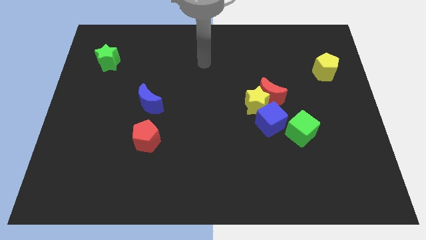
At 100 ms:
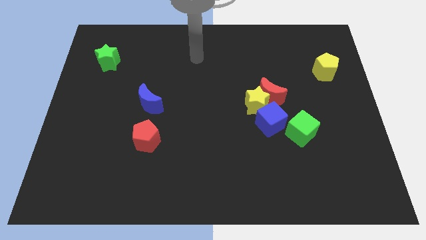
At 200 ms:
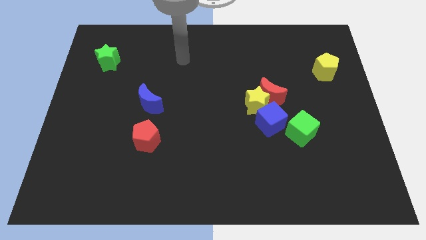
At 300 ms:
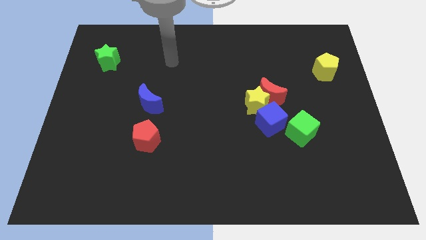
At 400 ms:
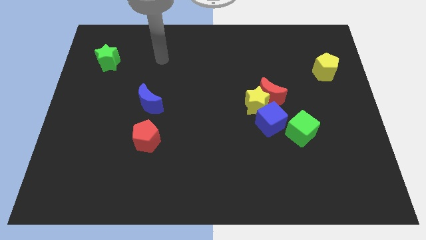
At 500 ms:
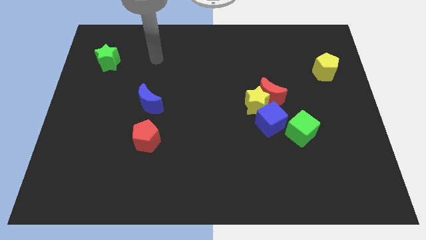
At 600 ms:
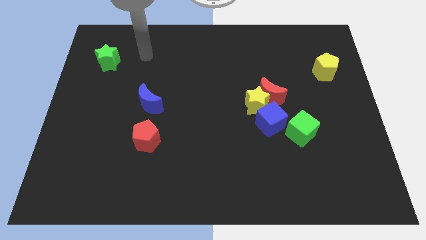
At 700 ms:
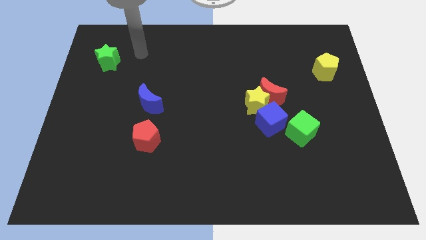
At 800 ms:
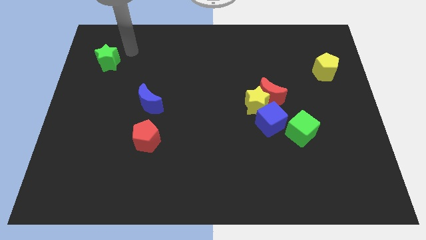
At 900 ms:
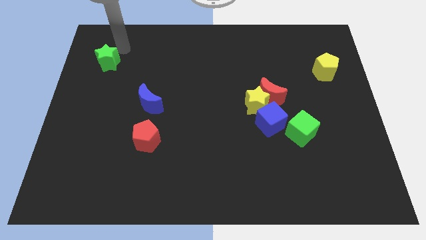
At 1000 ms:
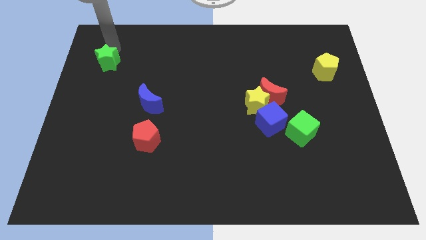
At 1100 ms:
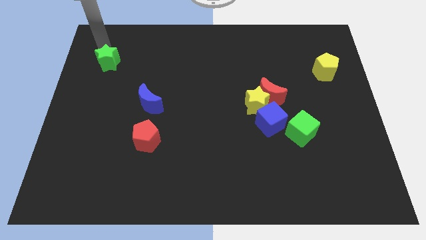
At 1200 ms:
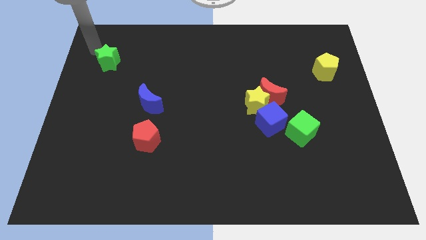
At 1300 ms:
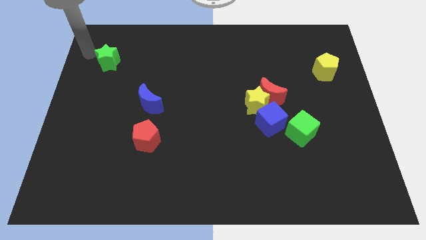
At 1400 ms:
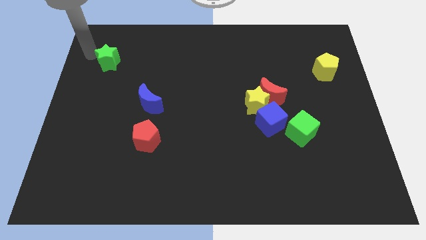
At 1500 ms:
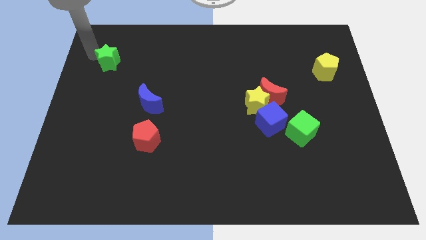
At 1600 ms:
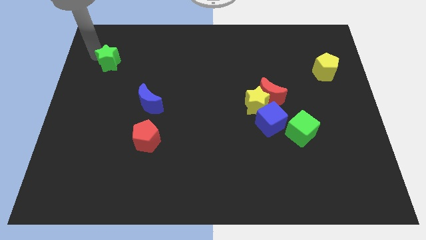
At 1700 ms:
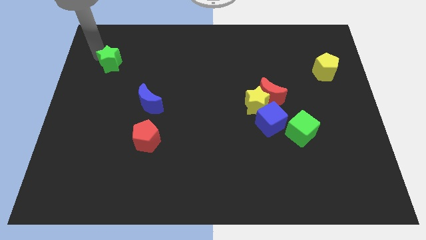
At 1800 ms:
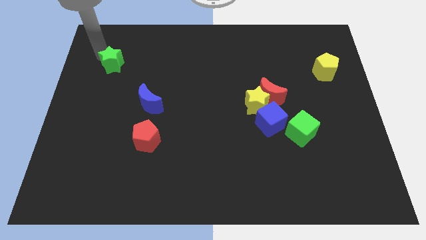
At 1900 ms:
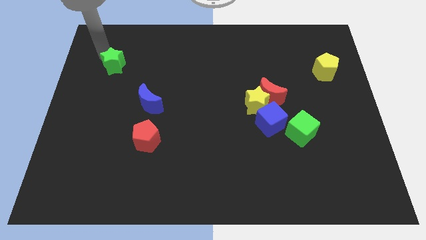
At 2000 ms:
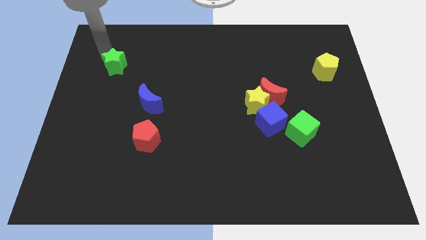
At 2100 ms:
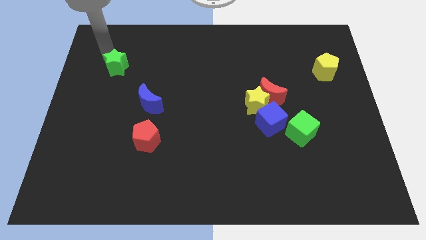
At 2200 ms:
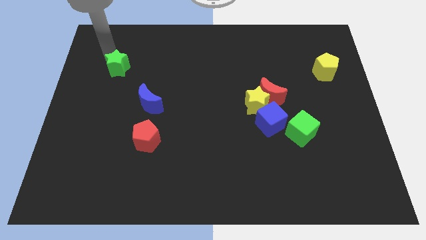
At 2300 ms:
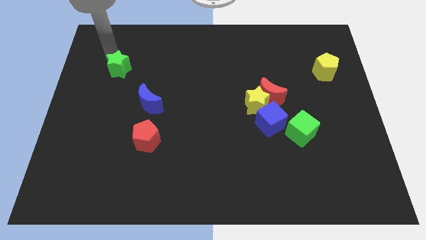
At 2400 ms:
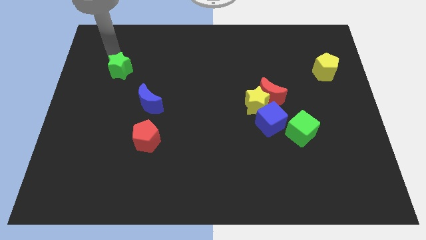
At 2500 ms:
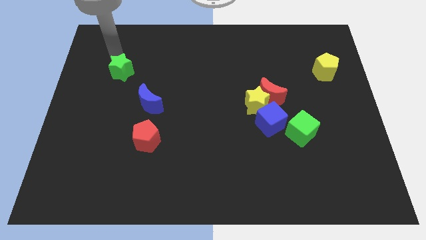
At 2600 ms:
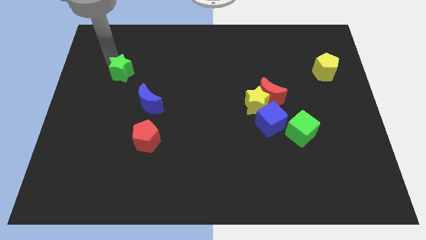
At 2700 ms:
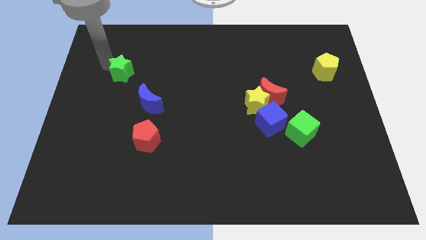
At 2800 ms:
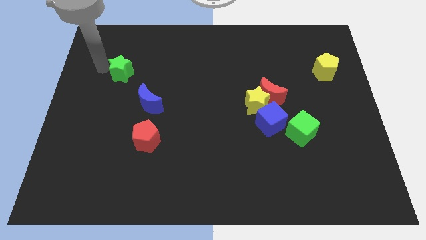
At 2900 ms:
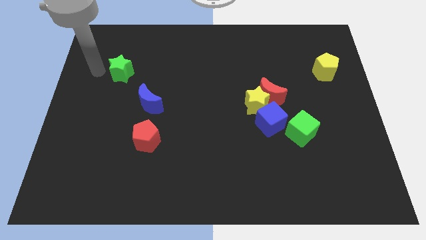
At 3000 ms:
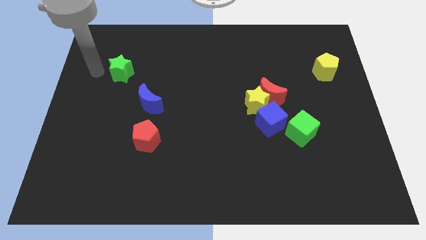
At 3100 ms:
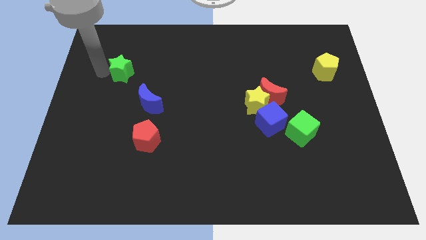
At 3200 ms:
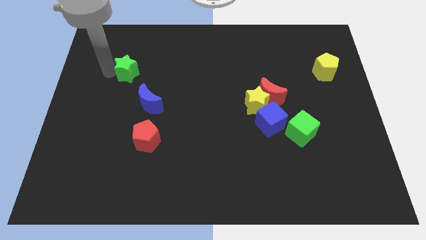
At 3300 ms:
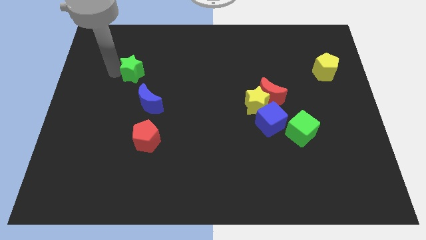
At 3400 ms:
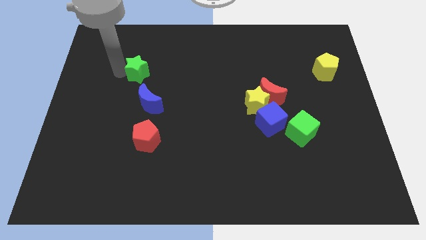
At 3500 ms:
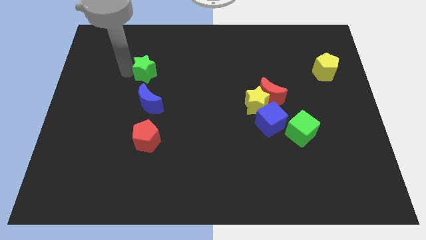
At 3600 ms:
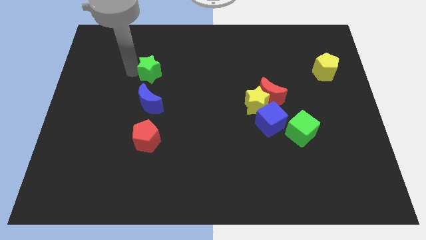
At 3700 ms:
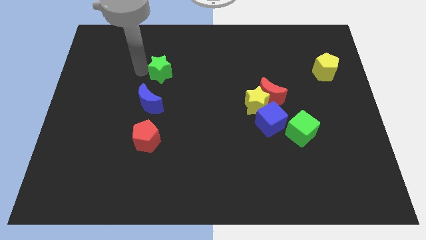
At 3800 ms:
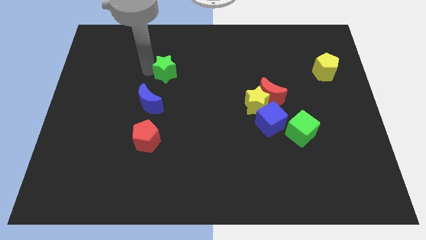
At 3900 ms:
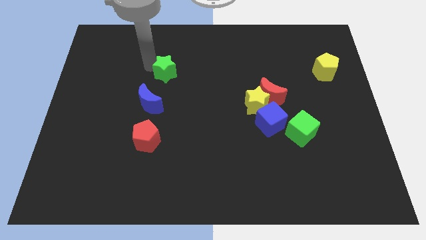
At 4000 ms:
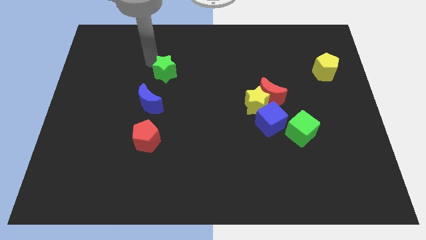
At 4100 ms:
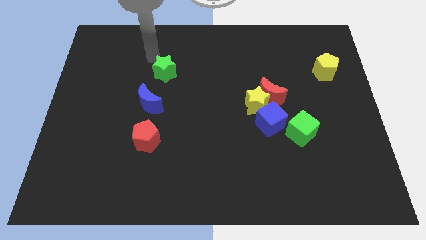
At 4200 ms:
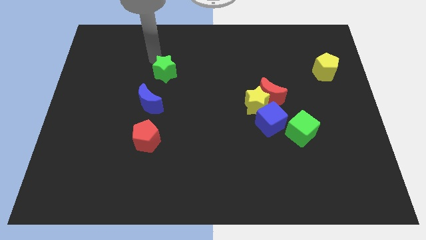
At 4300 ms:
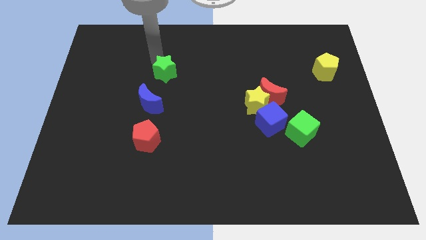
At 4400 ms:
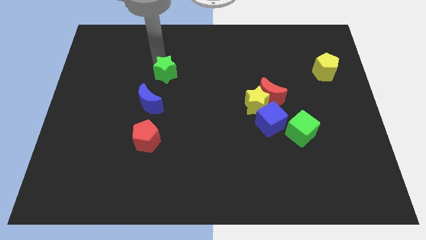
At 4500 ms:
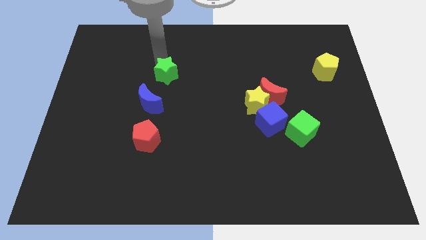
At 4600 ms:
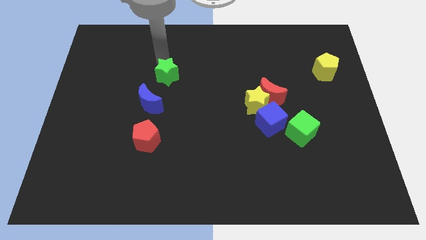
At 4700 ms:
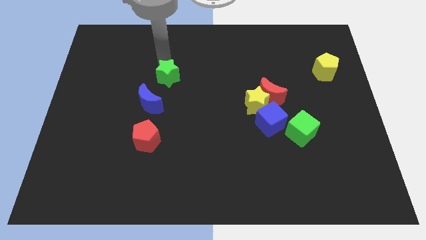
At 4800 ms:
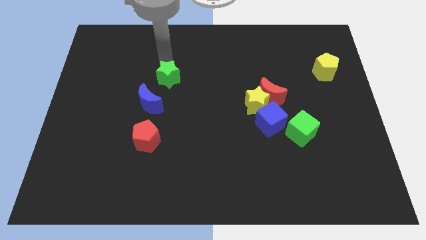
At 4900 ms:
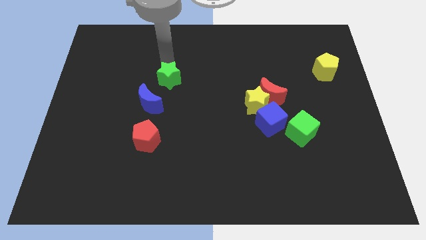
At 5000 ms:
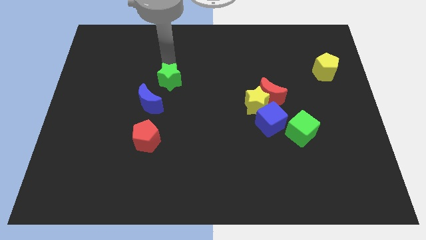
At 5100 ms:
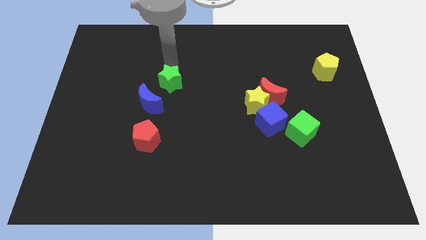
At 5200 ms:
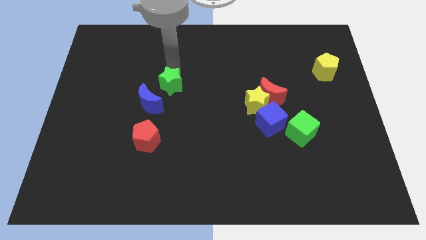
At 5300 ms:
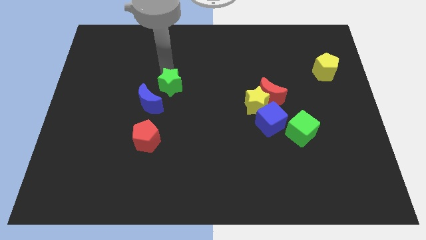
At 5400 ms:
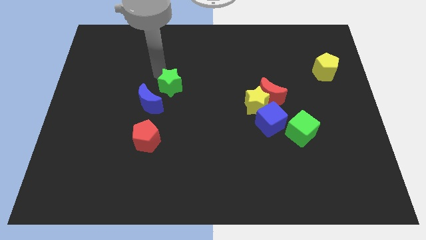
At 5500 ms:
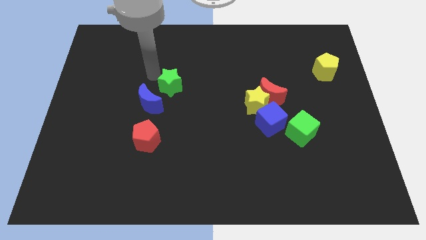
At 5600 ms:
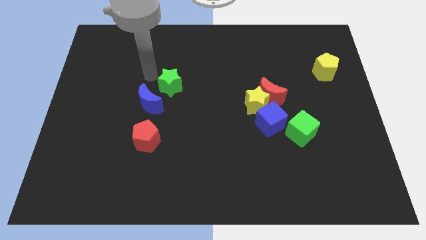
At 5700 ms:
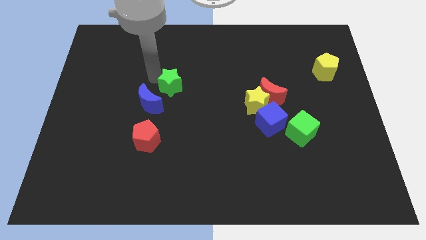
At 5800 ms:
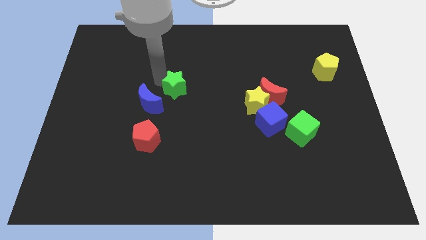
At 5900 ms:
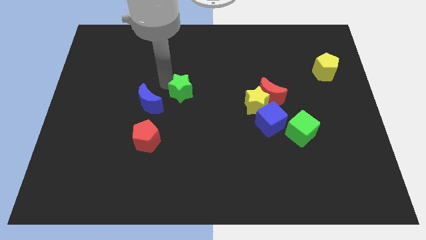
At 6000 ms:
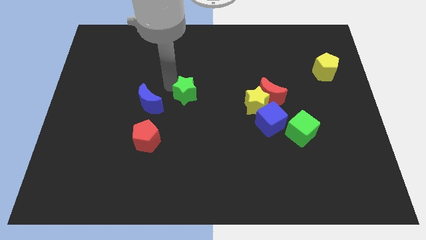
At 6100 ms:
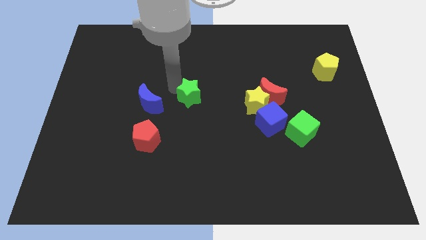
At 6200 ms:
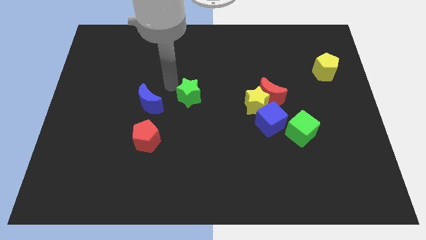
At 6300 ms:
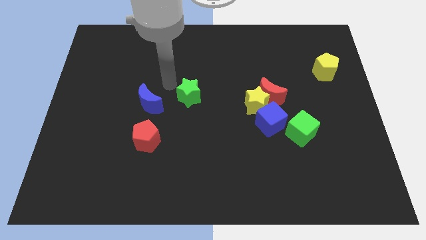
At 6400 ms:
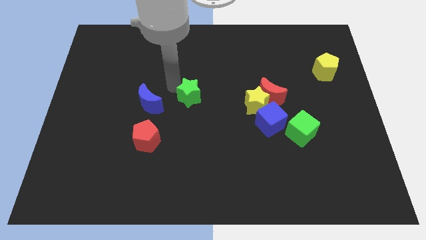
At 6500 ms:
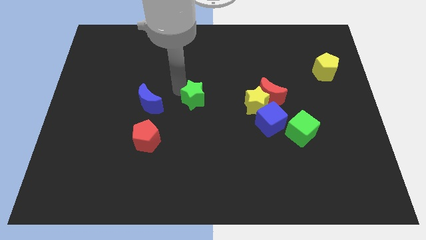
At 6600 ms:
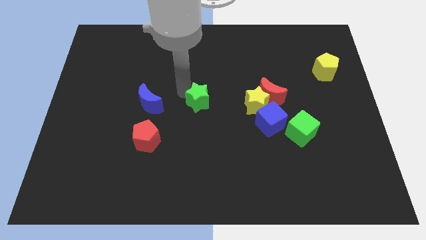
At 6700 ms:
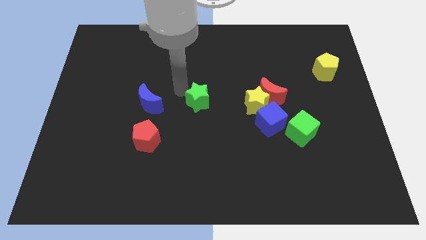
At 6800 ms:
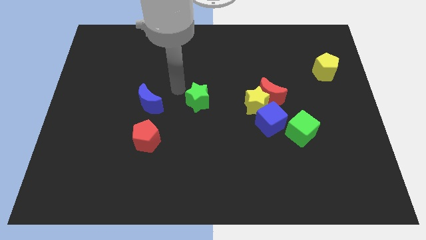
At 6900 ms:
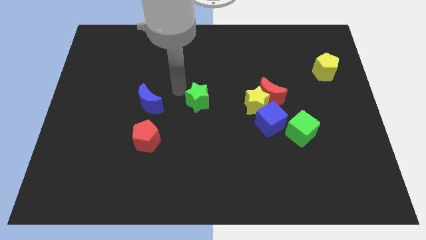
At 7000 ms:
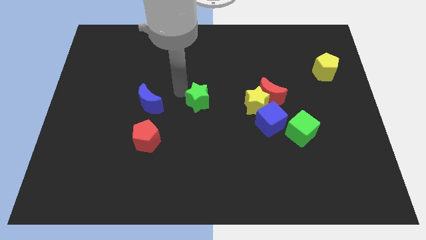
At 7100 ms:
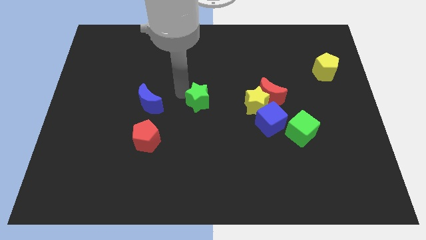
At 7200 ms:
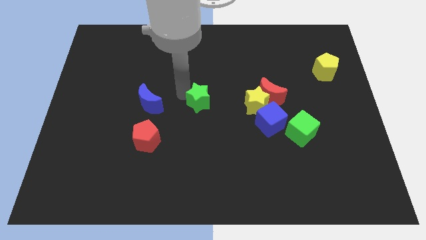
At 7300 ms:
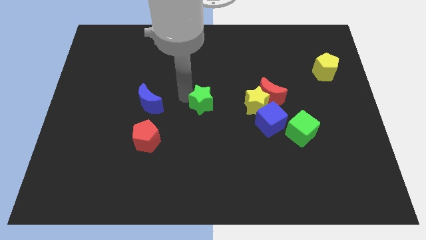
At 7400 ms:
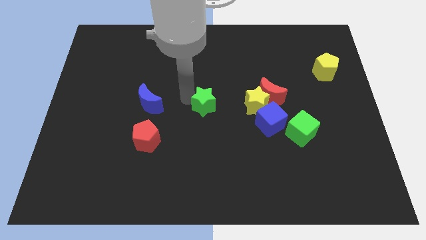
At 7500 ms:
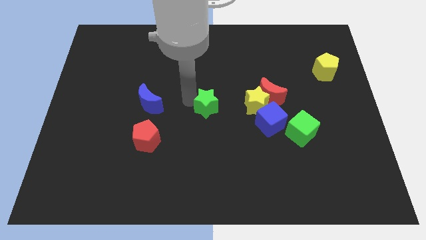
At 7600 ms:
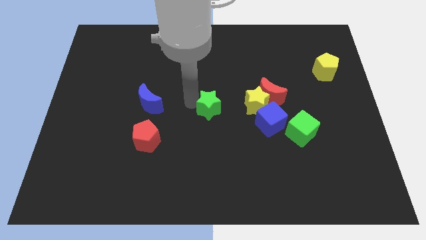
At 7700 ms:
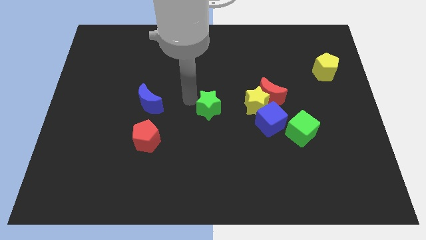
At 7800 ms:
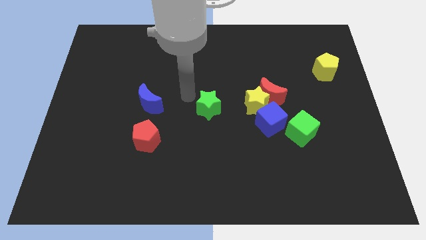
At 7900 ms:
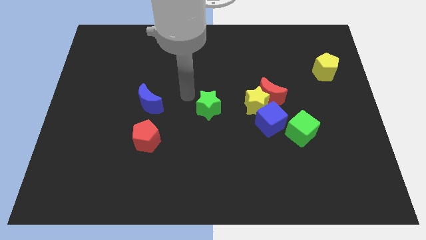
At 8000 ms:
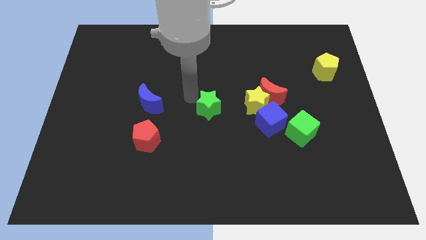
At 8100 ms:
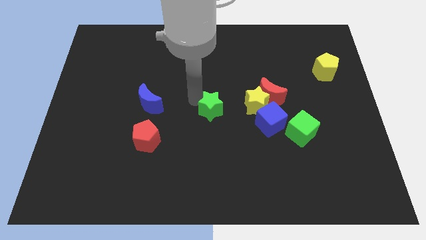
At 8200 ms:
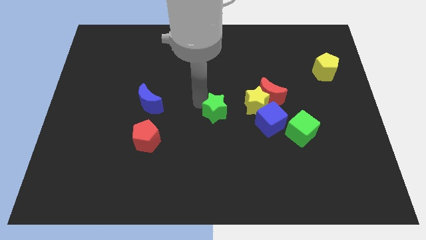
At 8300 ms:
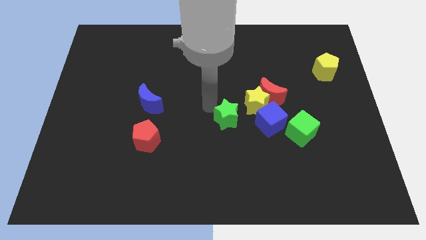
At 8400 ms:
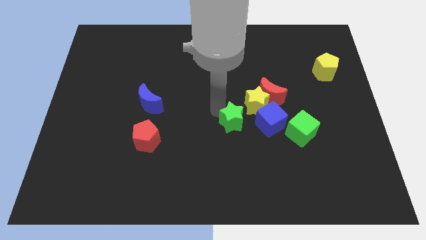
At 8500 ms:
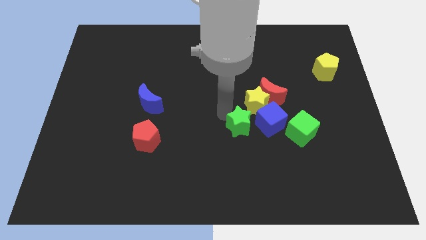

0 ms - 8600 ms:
move the green star to the bottom left side of the blue cube
